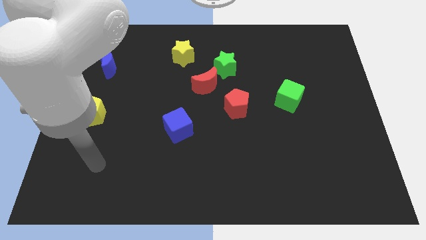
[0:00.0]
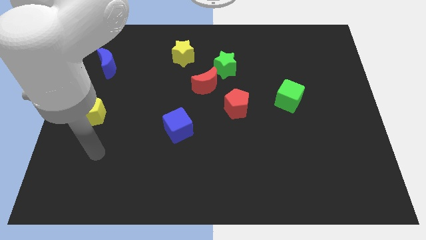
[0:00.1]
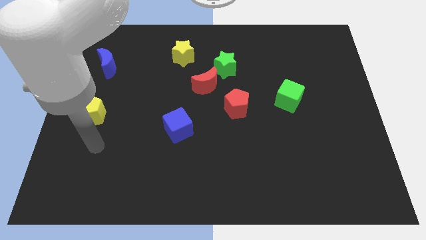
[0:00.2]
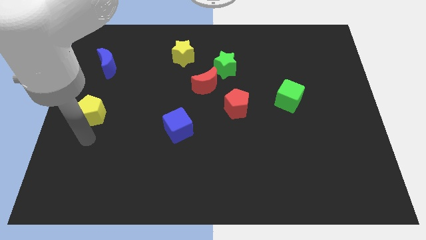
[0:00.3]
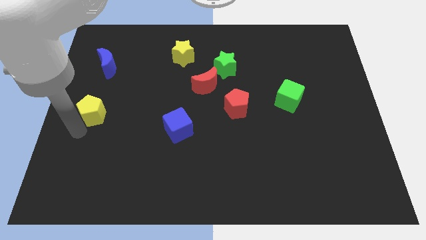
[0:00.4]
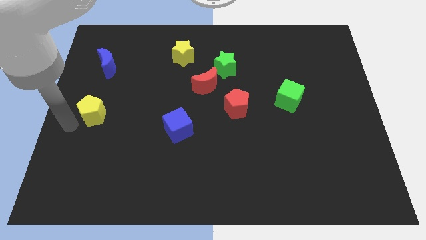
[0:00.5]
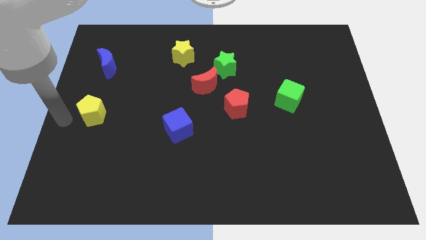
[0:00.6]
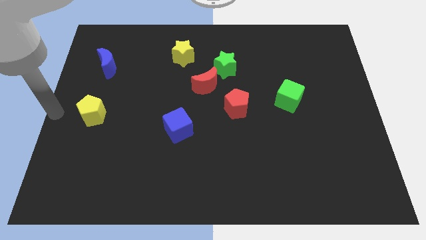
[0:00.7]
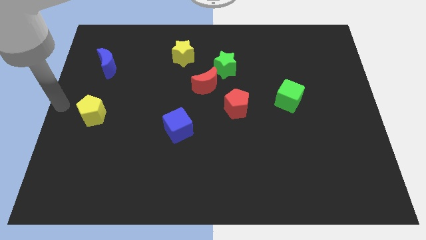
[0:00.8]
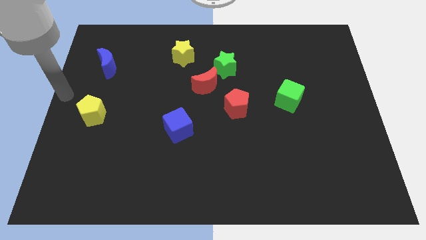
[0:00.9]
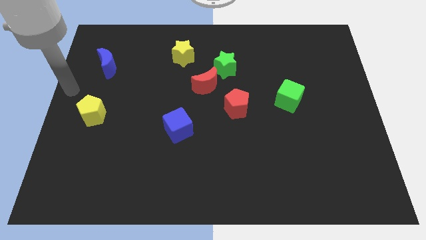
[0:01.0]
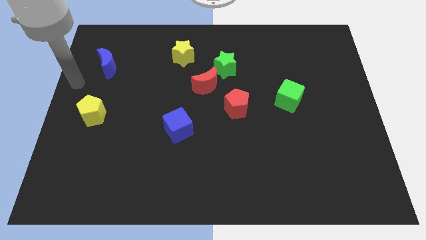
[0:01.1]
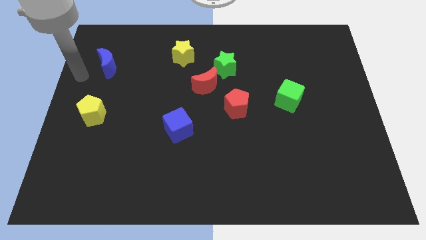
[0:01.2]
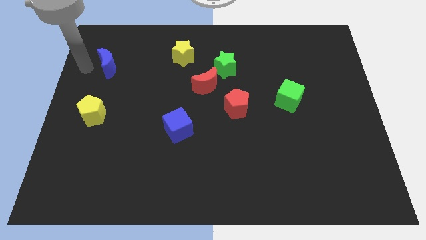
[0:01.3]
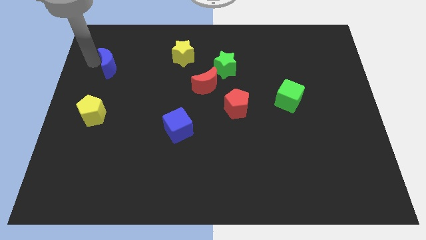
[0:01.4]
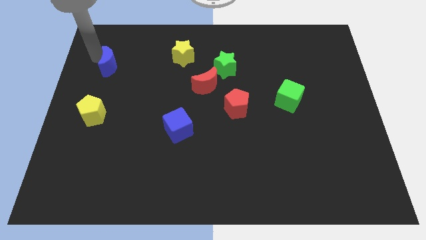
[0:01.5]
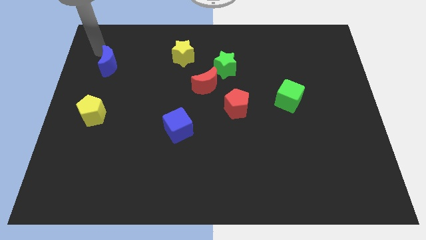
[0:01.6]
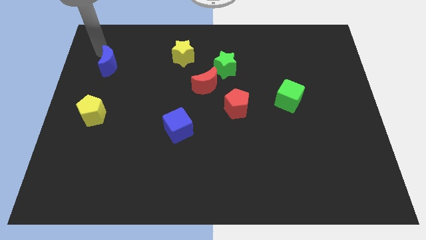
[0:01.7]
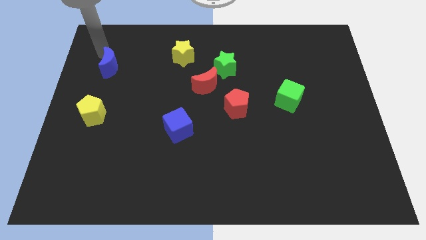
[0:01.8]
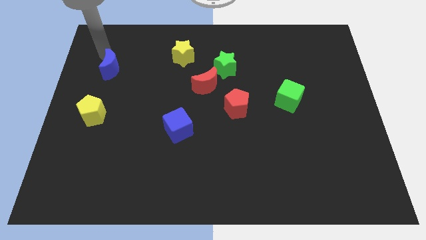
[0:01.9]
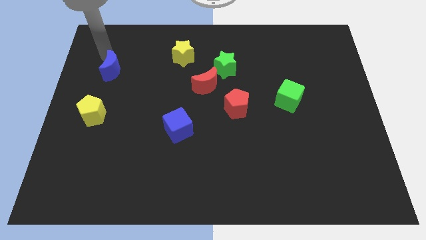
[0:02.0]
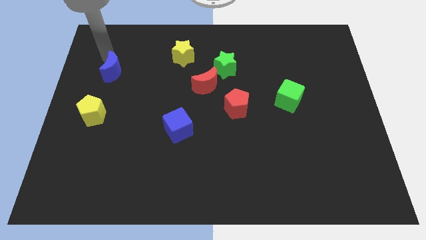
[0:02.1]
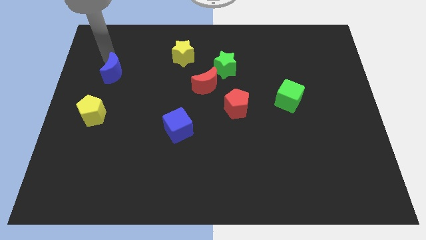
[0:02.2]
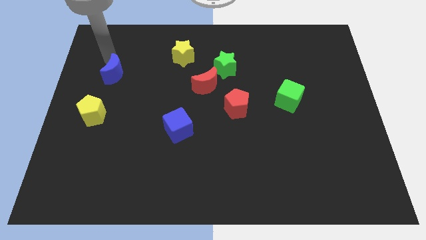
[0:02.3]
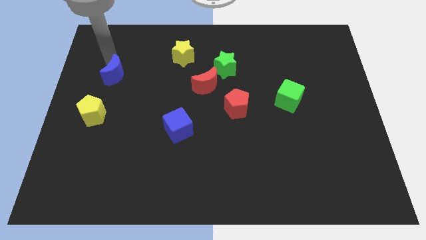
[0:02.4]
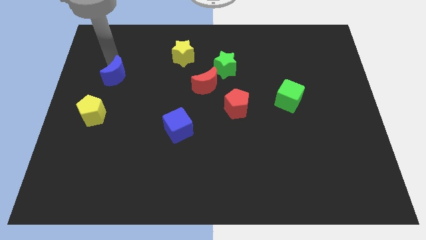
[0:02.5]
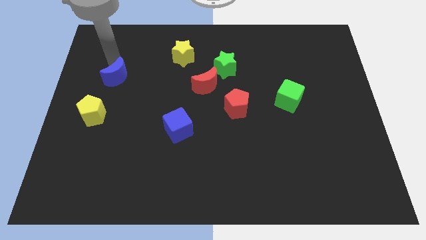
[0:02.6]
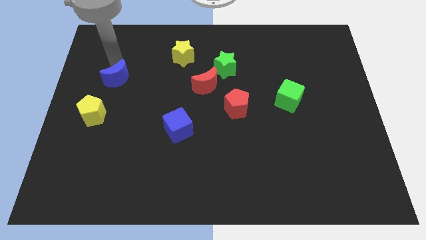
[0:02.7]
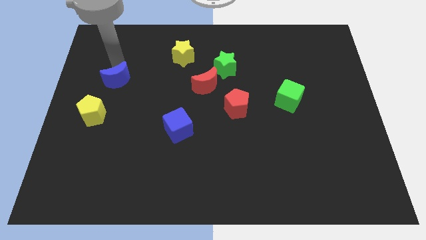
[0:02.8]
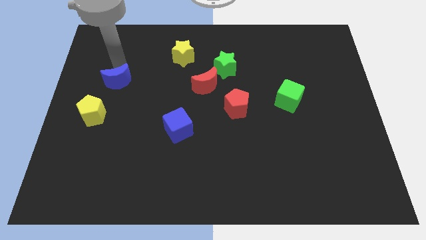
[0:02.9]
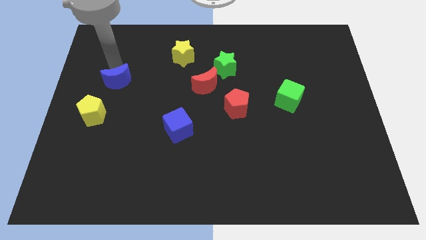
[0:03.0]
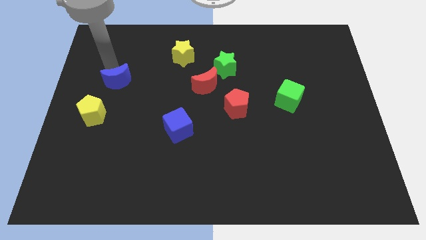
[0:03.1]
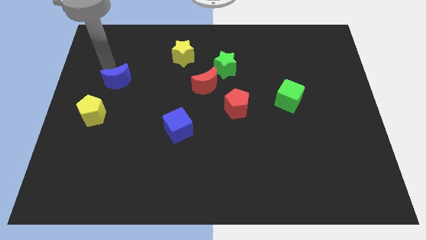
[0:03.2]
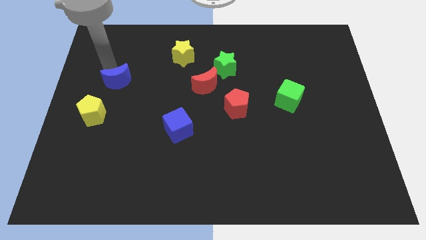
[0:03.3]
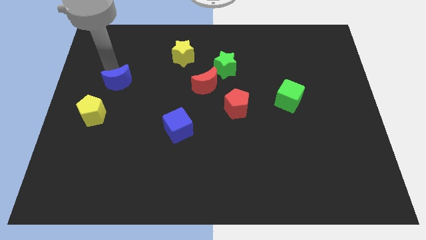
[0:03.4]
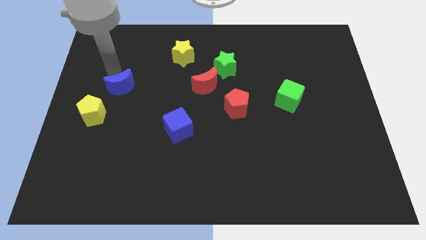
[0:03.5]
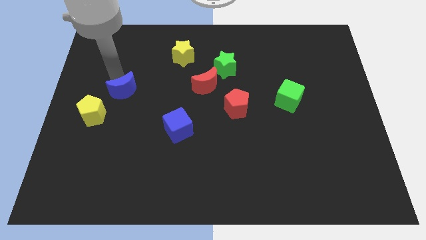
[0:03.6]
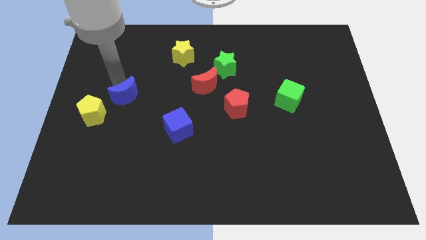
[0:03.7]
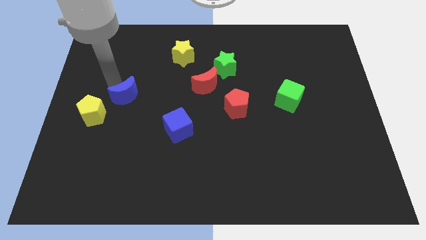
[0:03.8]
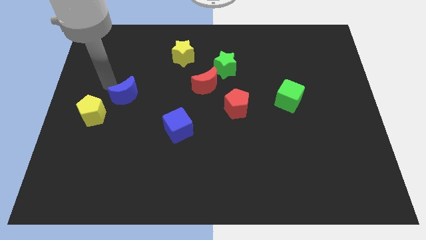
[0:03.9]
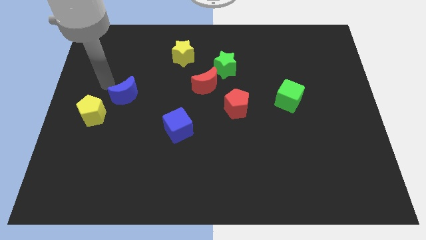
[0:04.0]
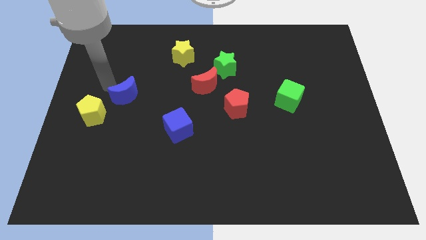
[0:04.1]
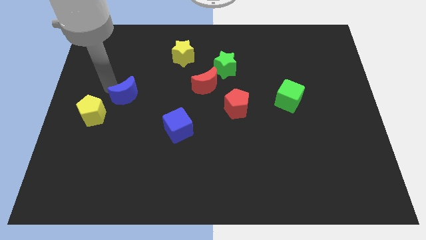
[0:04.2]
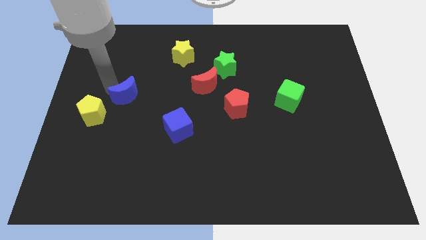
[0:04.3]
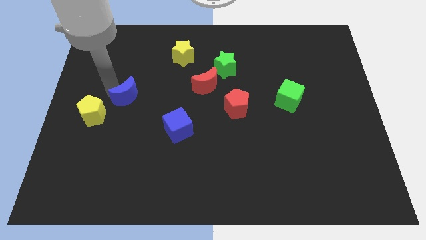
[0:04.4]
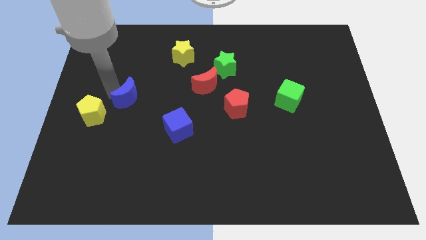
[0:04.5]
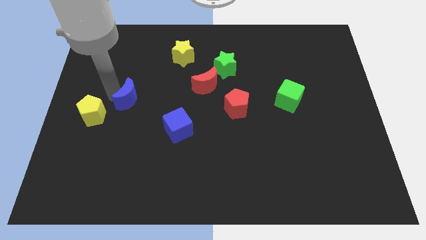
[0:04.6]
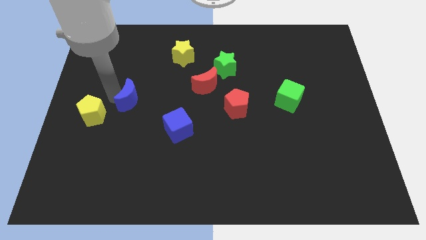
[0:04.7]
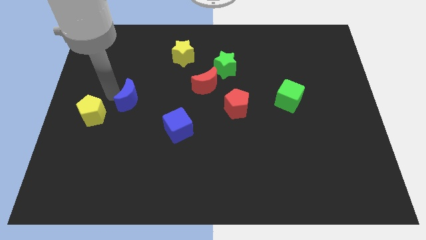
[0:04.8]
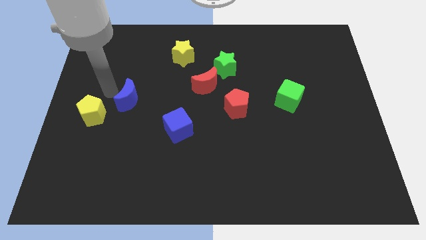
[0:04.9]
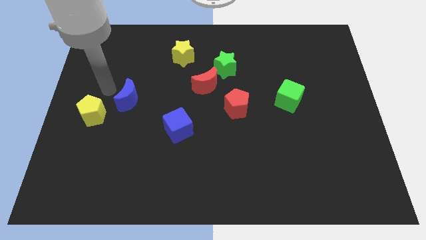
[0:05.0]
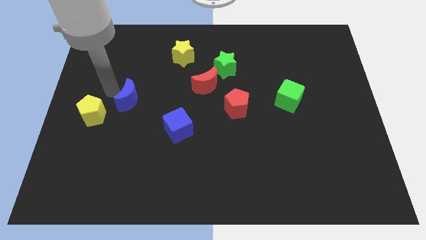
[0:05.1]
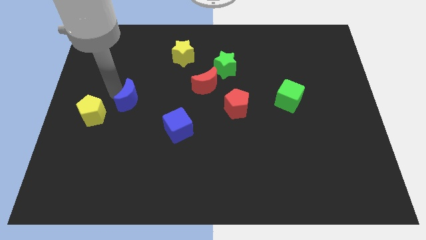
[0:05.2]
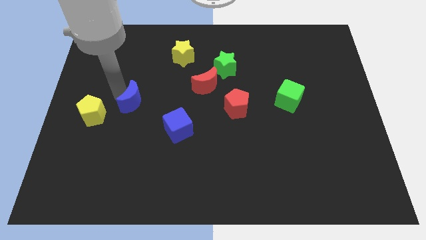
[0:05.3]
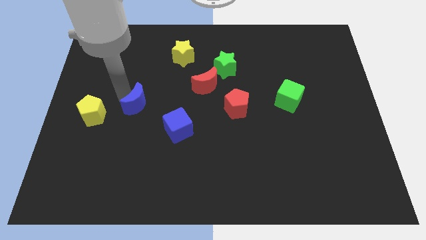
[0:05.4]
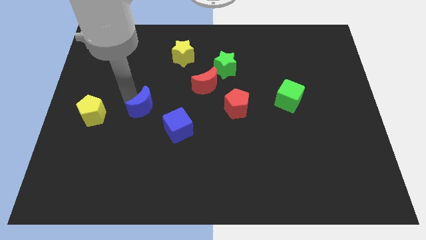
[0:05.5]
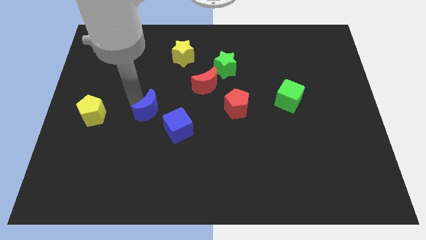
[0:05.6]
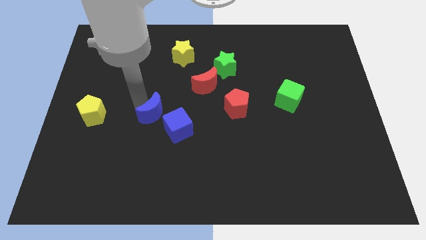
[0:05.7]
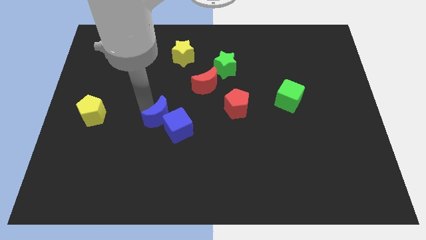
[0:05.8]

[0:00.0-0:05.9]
slide the blue moon next to the blue cube

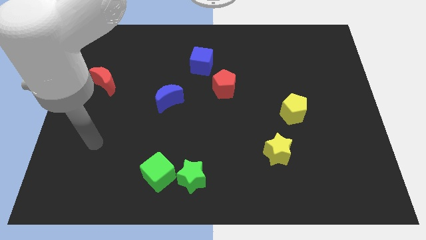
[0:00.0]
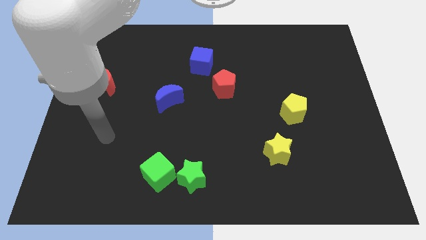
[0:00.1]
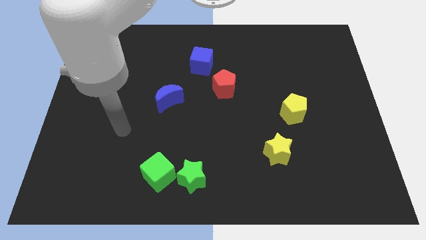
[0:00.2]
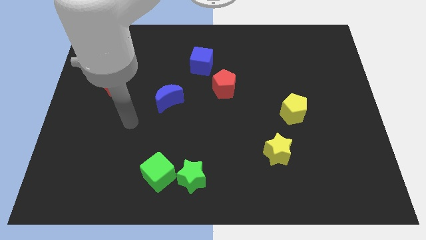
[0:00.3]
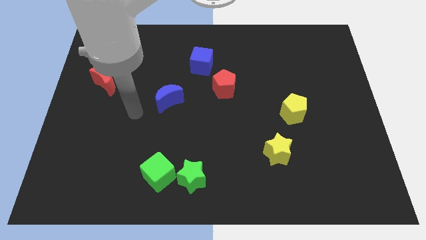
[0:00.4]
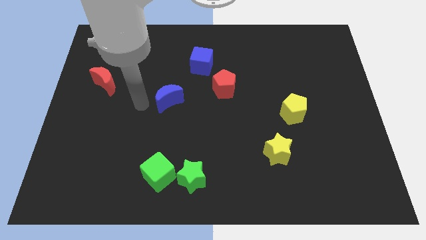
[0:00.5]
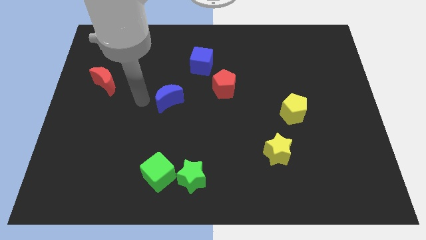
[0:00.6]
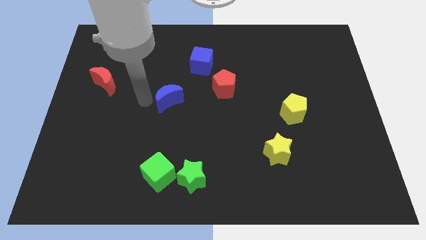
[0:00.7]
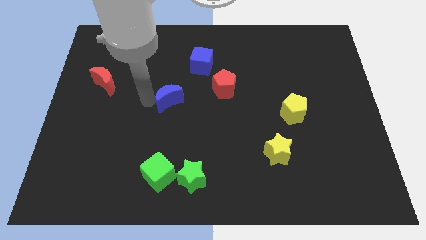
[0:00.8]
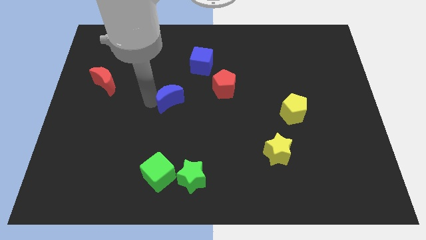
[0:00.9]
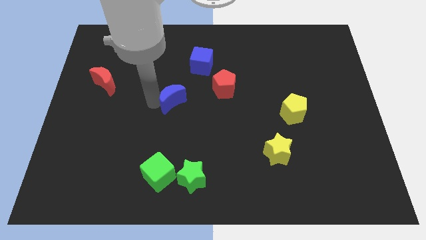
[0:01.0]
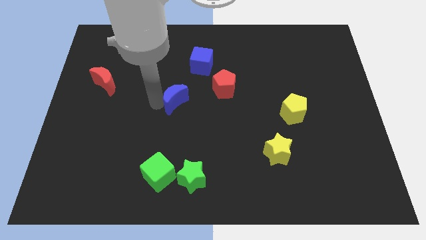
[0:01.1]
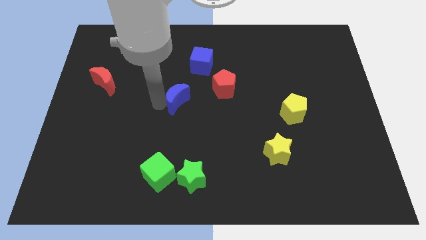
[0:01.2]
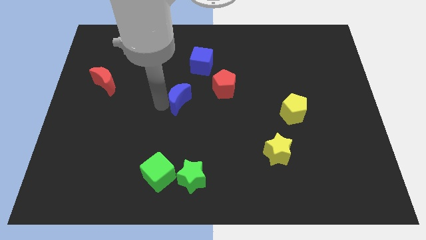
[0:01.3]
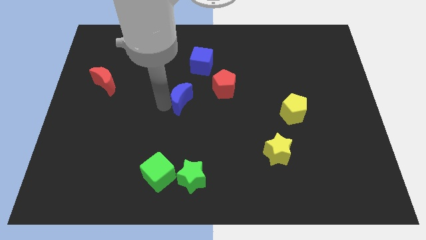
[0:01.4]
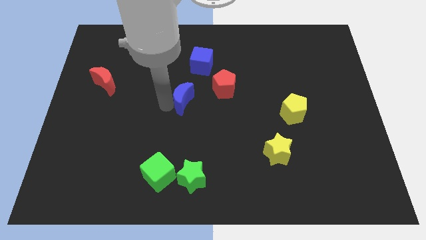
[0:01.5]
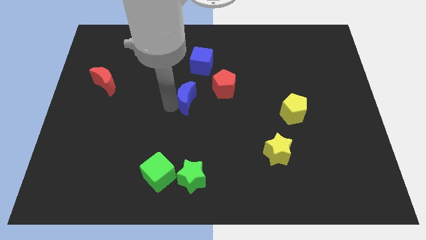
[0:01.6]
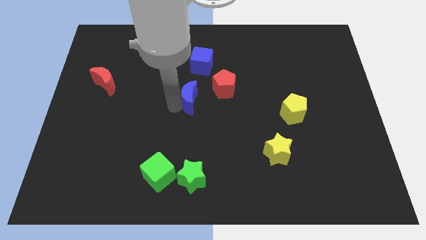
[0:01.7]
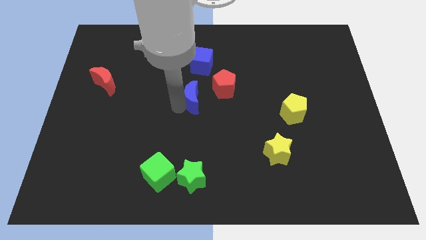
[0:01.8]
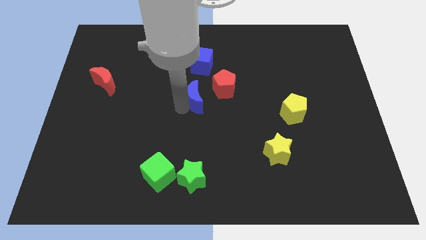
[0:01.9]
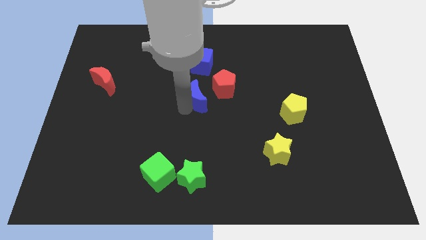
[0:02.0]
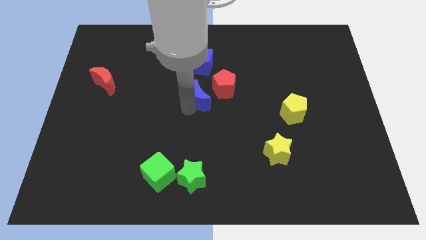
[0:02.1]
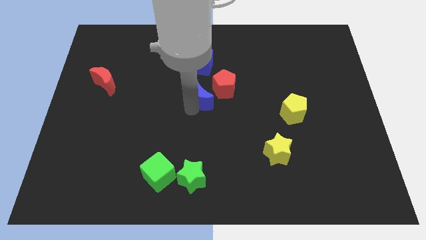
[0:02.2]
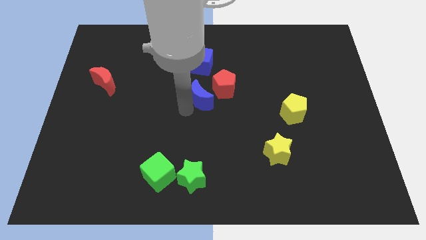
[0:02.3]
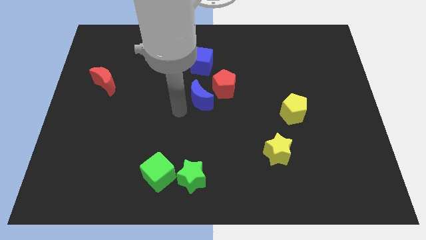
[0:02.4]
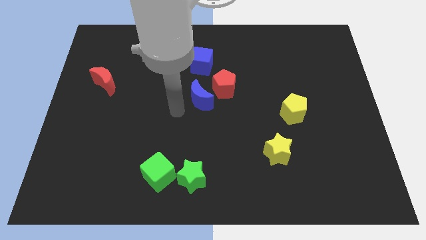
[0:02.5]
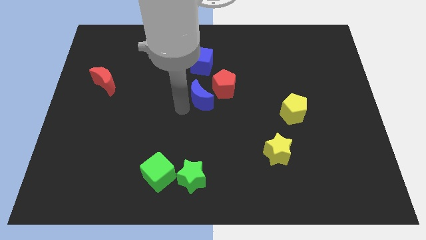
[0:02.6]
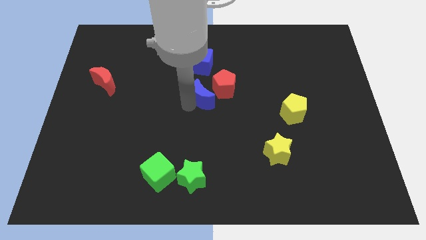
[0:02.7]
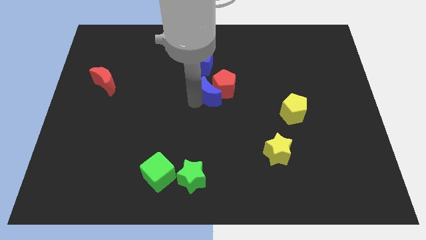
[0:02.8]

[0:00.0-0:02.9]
move the blue moon close to the red pentagon
